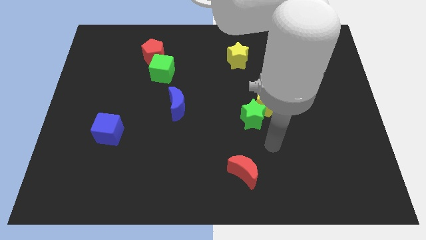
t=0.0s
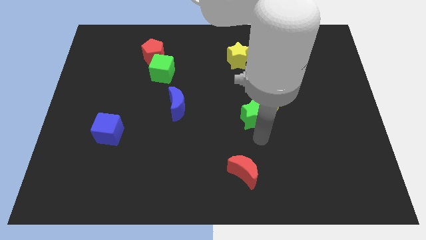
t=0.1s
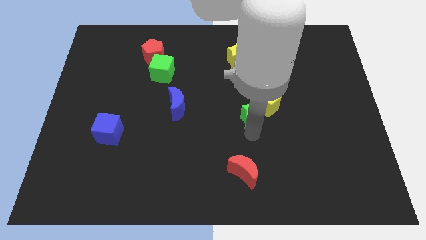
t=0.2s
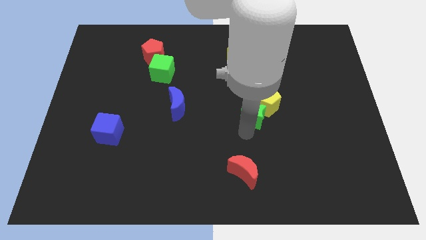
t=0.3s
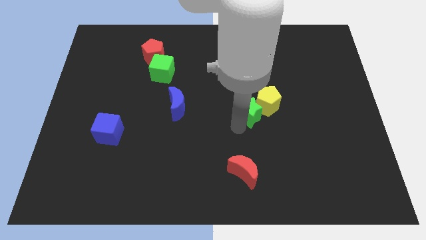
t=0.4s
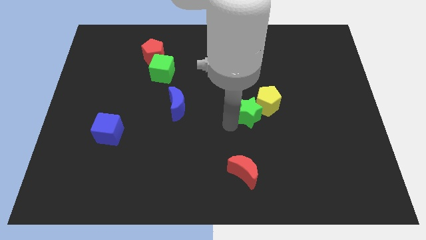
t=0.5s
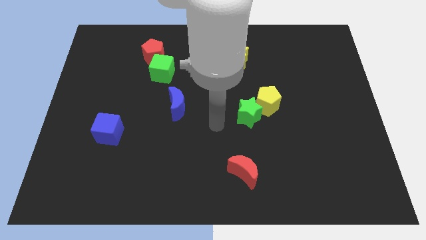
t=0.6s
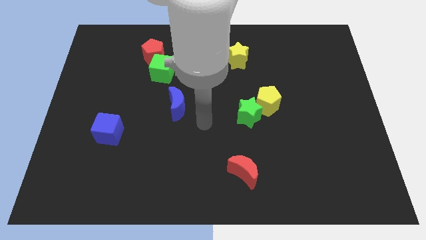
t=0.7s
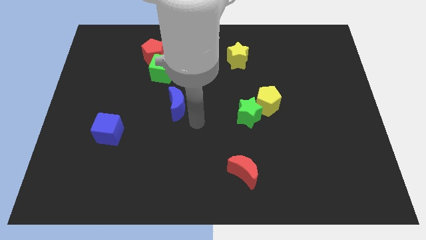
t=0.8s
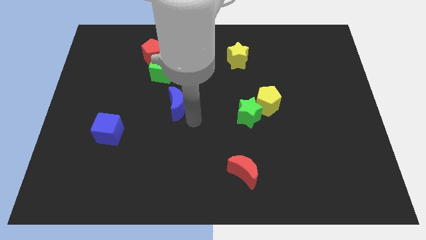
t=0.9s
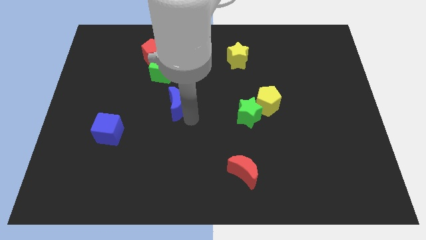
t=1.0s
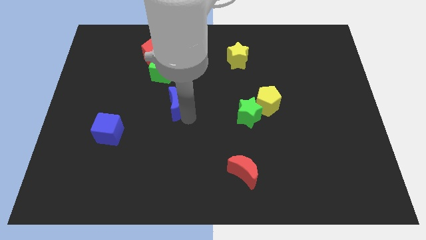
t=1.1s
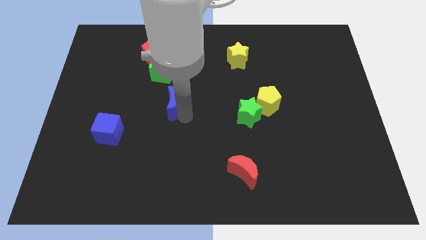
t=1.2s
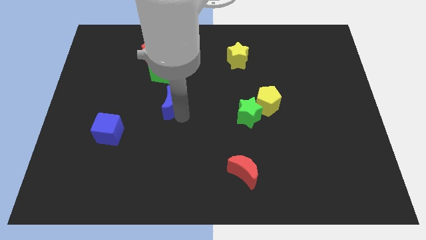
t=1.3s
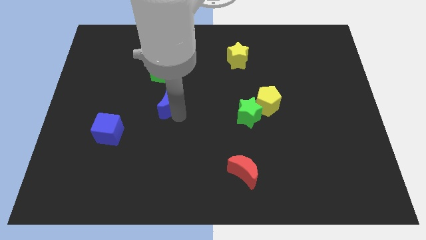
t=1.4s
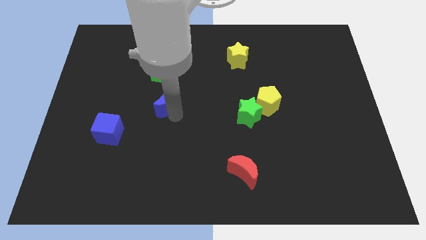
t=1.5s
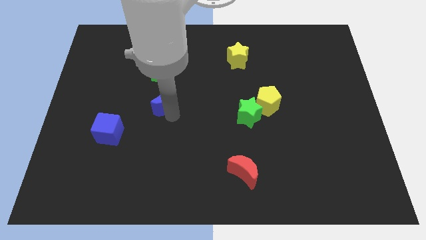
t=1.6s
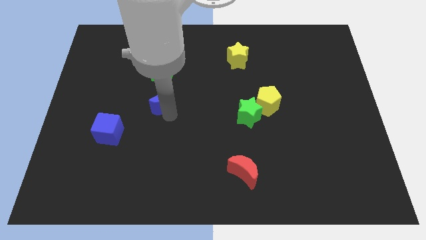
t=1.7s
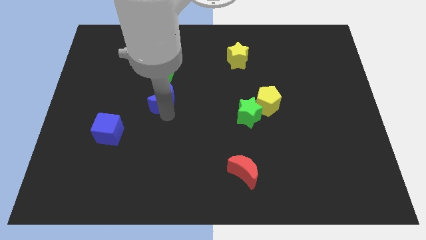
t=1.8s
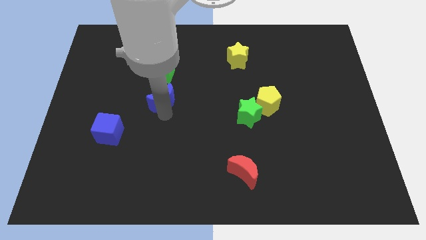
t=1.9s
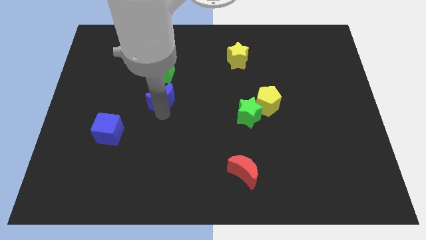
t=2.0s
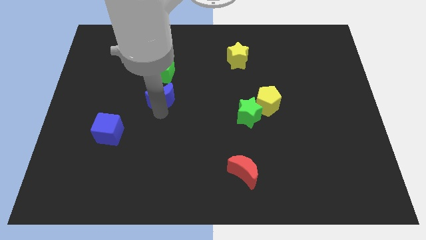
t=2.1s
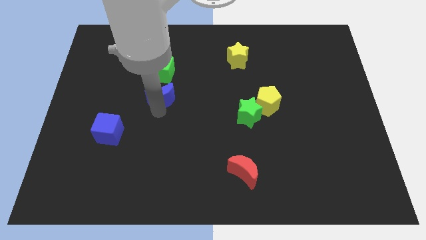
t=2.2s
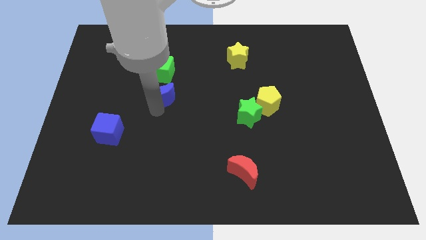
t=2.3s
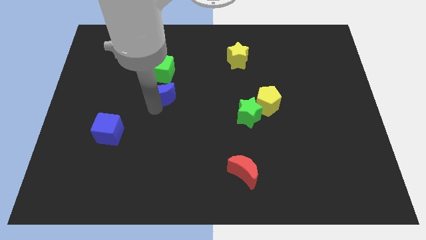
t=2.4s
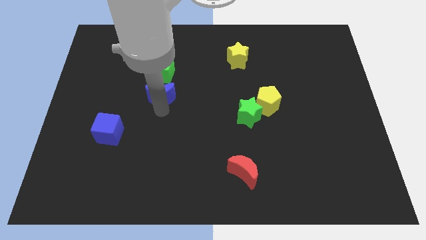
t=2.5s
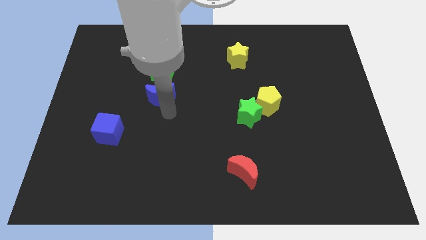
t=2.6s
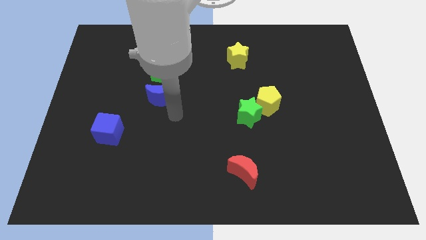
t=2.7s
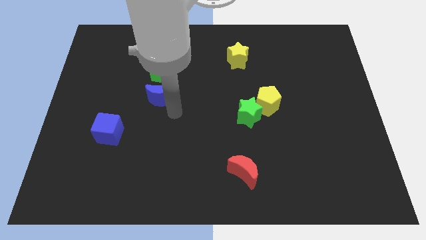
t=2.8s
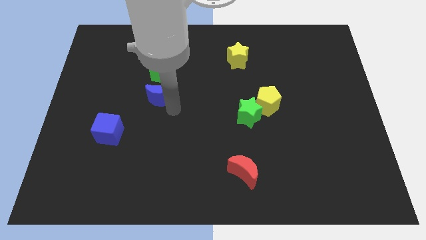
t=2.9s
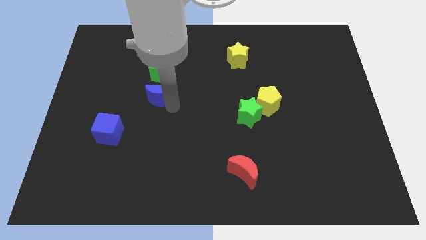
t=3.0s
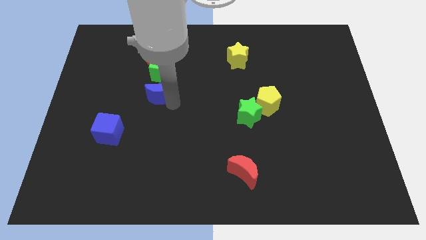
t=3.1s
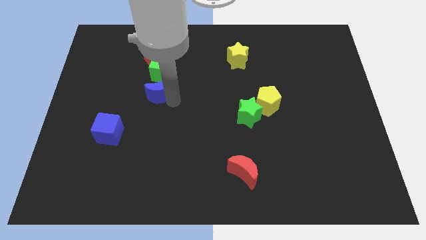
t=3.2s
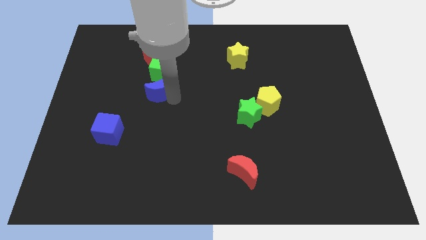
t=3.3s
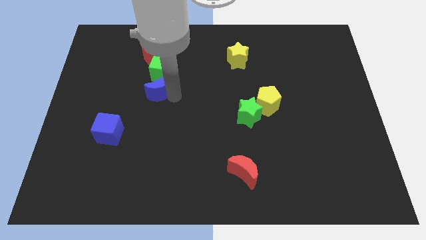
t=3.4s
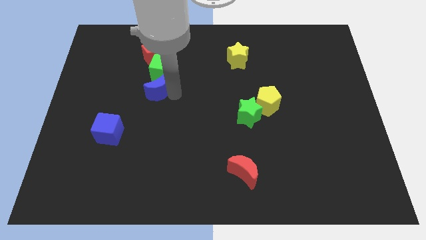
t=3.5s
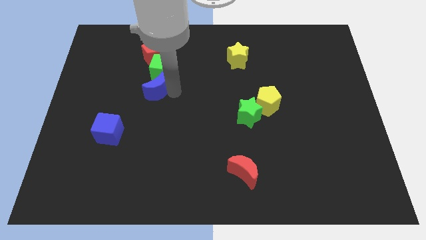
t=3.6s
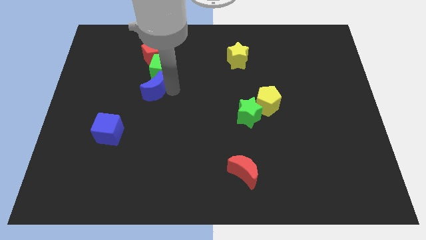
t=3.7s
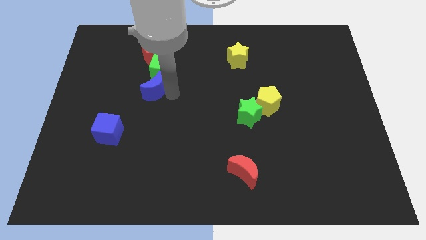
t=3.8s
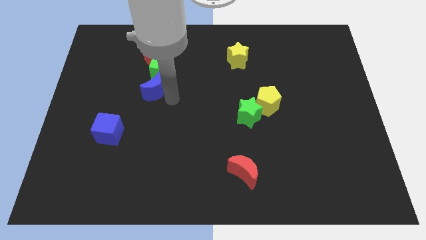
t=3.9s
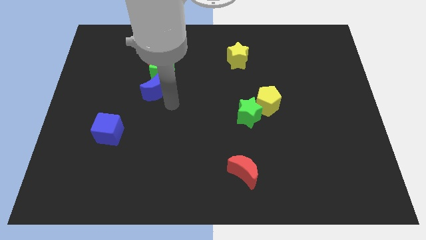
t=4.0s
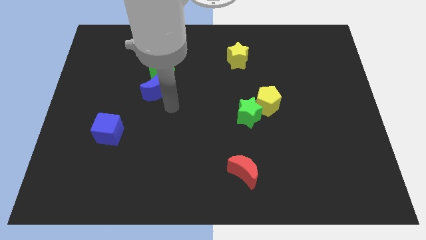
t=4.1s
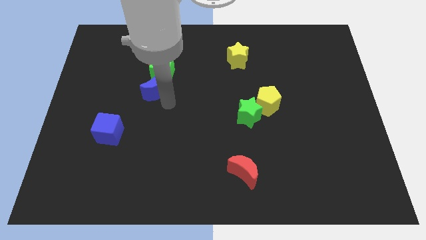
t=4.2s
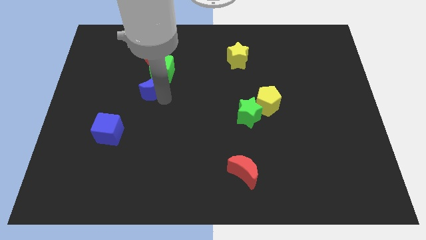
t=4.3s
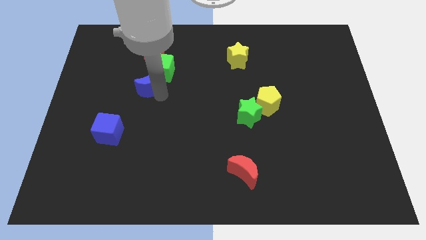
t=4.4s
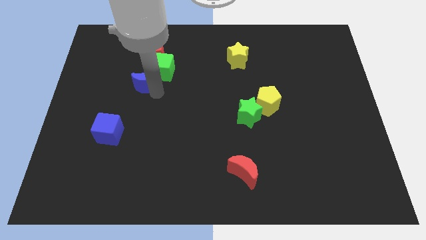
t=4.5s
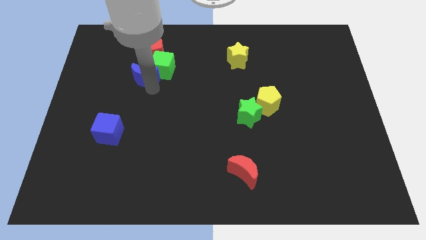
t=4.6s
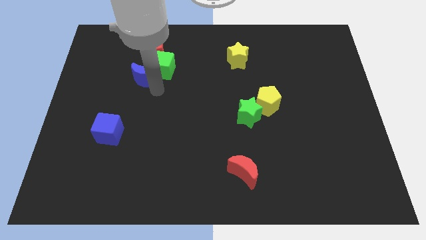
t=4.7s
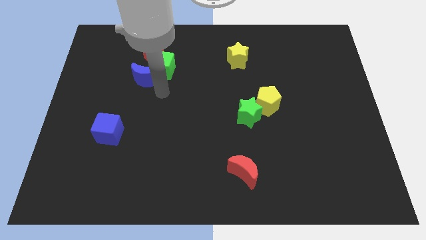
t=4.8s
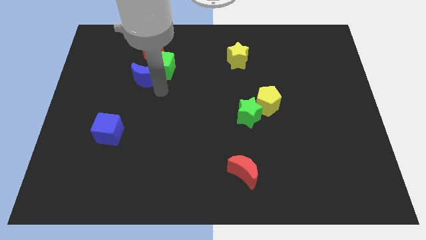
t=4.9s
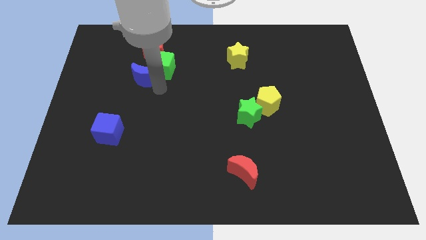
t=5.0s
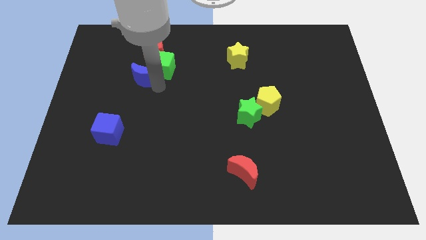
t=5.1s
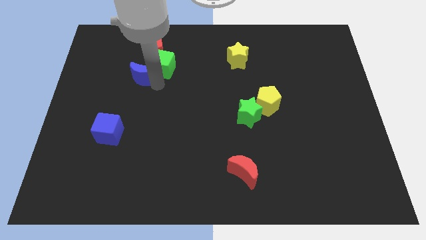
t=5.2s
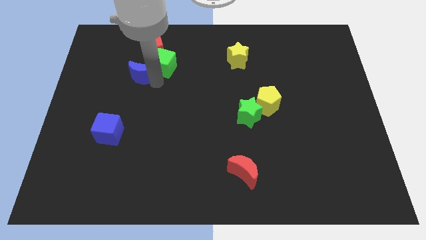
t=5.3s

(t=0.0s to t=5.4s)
slide the blue moon to the bottom left side of the red pentagon

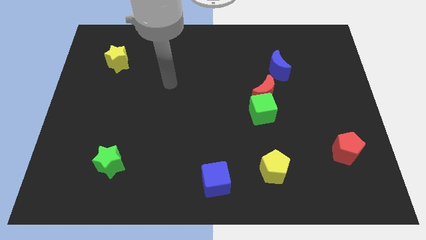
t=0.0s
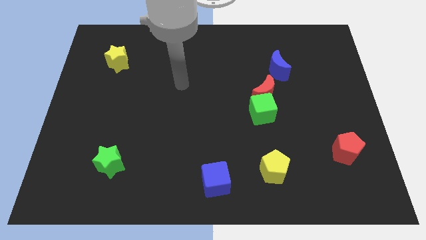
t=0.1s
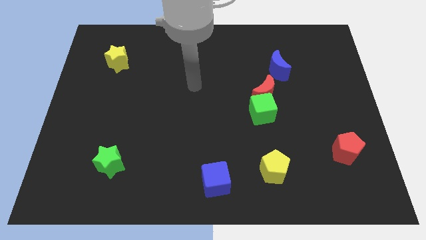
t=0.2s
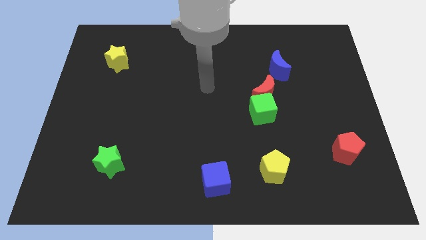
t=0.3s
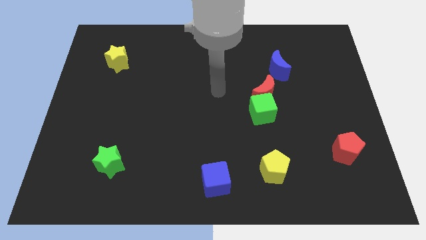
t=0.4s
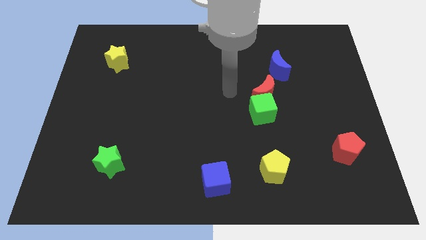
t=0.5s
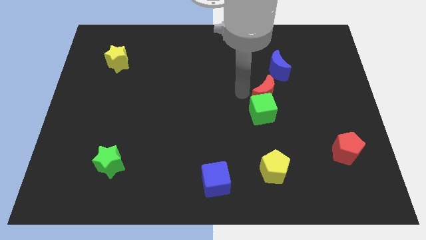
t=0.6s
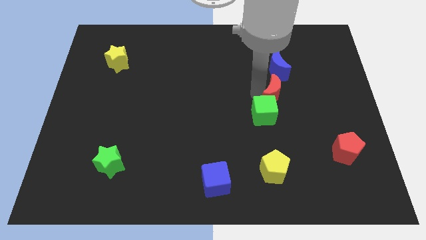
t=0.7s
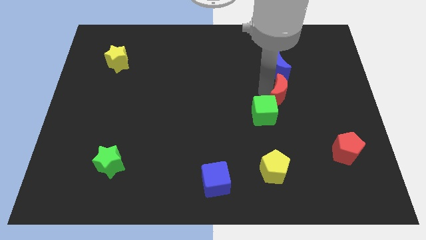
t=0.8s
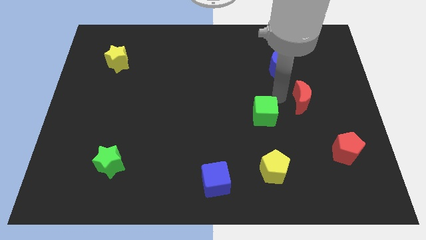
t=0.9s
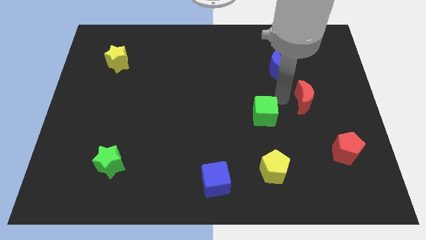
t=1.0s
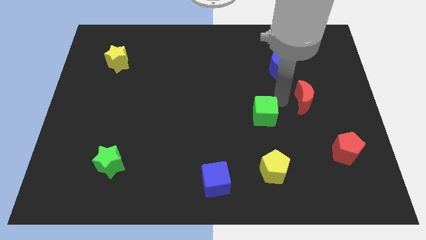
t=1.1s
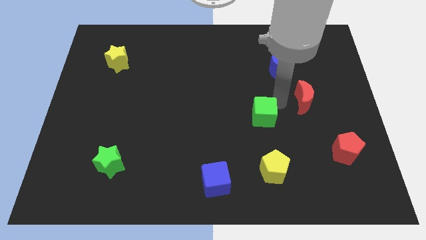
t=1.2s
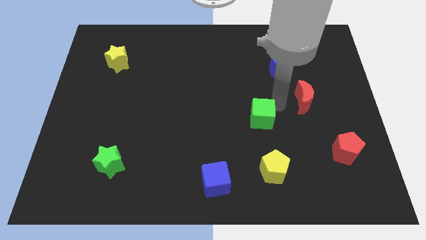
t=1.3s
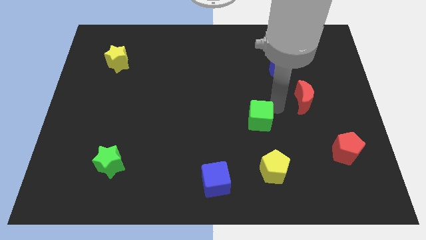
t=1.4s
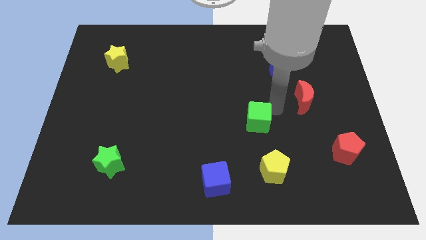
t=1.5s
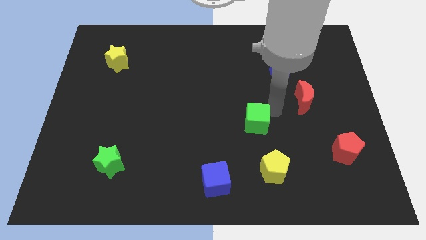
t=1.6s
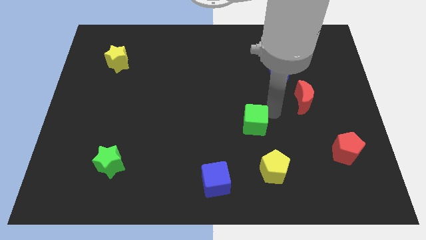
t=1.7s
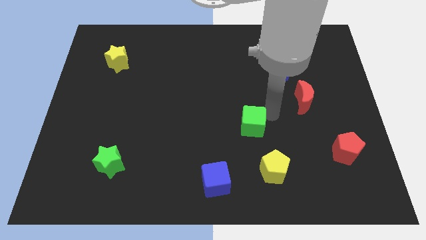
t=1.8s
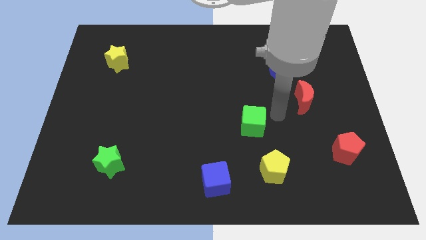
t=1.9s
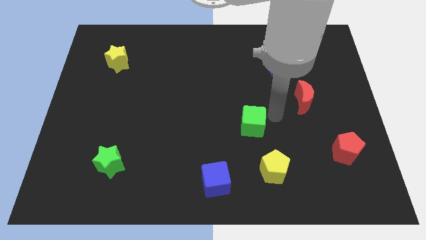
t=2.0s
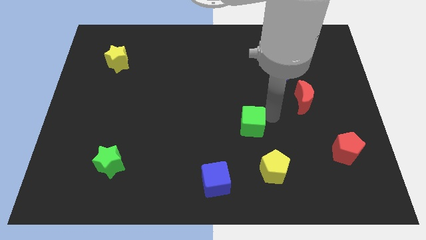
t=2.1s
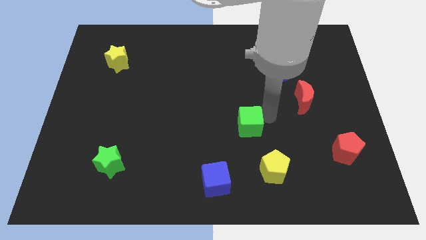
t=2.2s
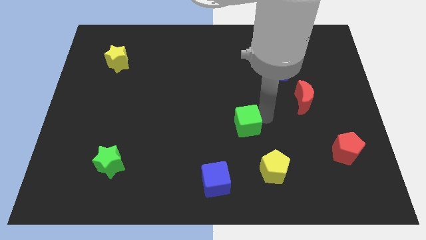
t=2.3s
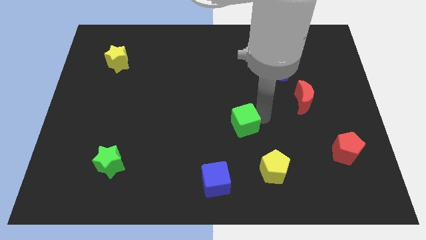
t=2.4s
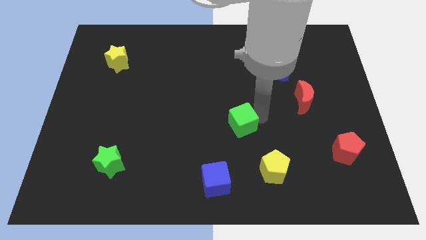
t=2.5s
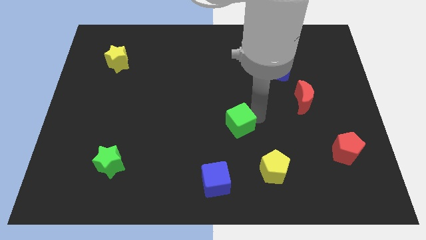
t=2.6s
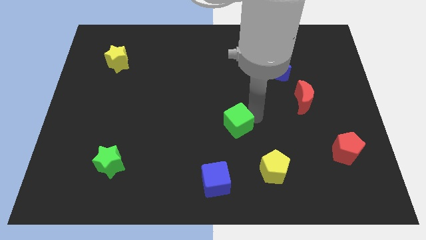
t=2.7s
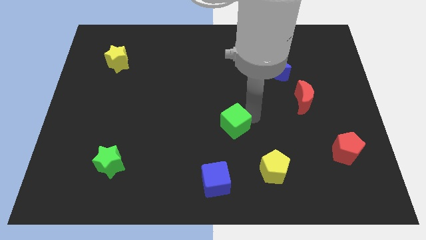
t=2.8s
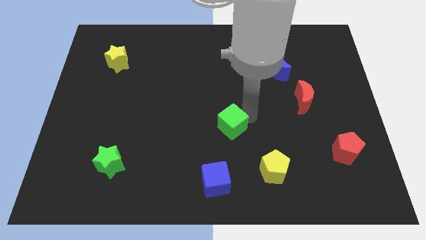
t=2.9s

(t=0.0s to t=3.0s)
push the green cube to the top side of the blue cube
